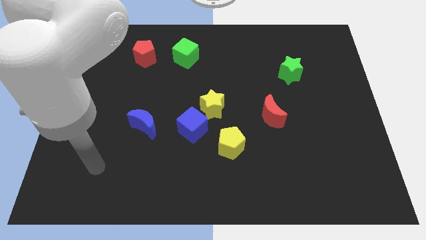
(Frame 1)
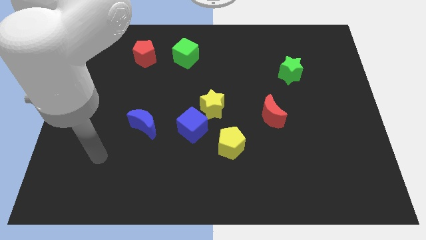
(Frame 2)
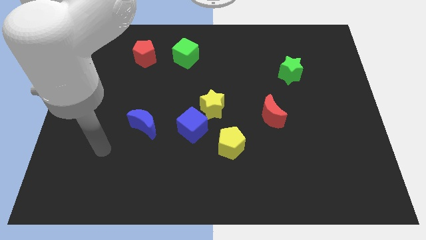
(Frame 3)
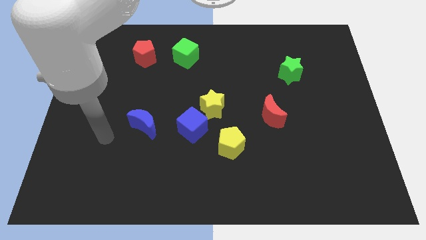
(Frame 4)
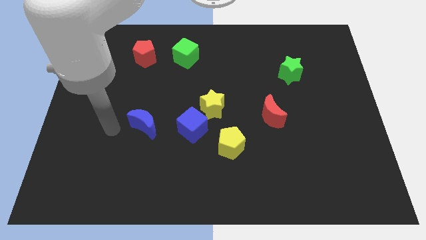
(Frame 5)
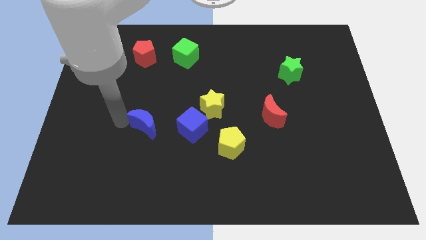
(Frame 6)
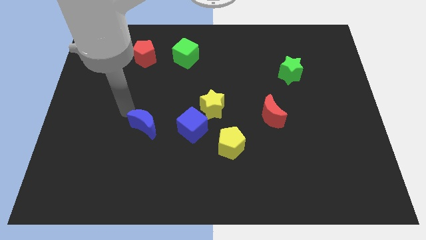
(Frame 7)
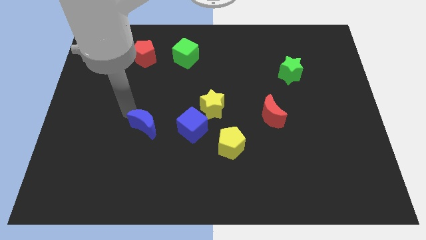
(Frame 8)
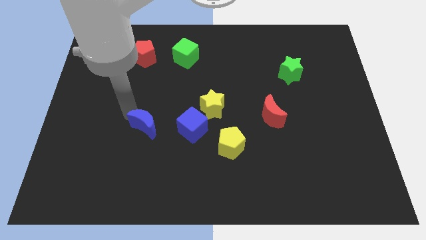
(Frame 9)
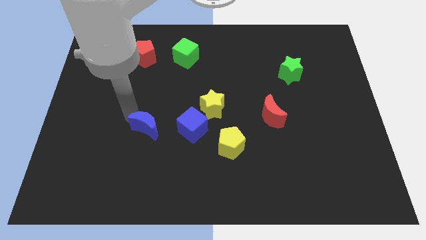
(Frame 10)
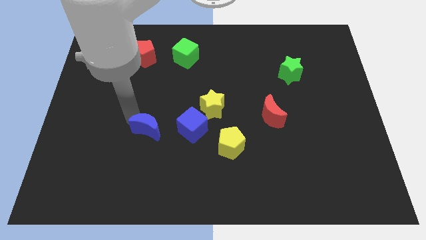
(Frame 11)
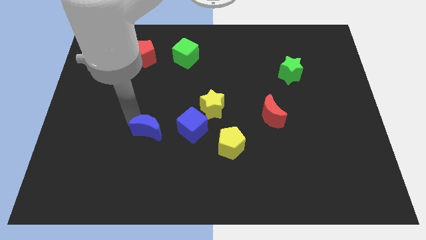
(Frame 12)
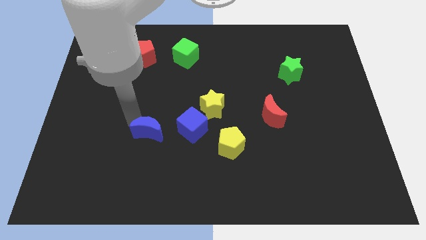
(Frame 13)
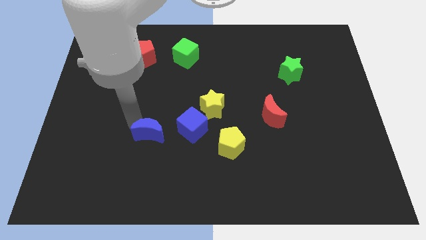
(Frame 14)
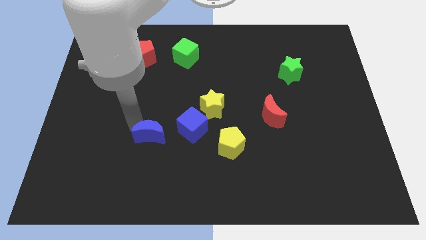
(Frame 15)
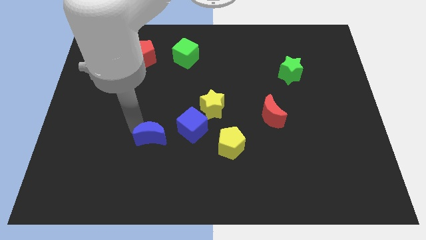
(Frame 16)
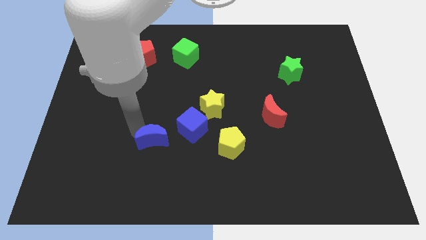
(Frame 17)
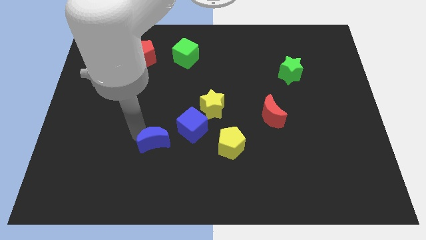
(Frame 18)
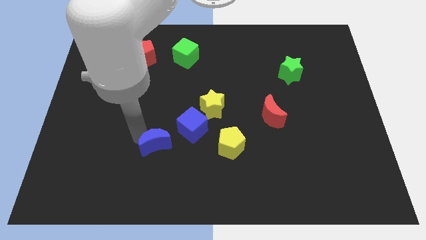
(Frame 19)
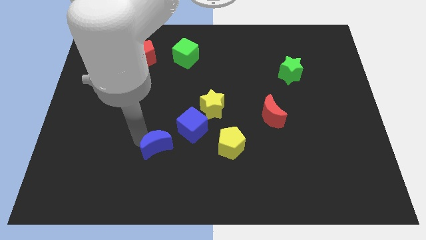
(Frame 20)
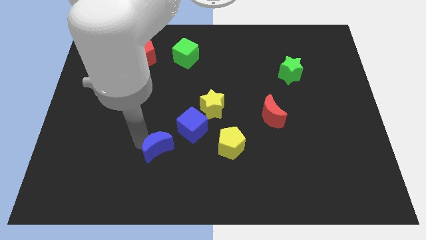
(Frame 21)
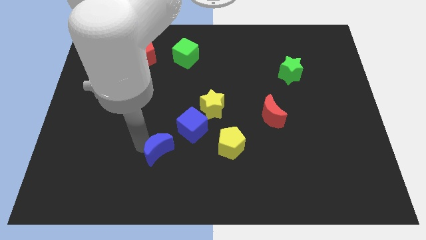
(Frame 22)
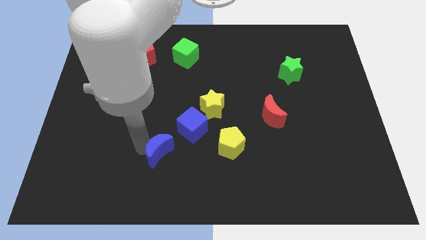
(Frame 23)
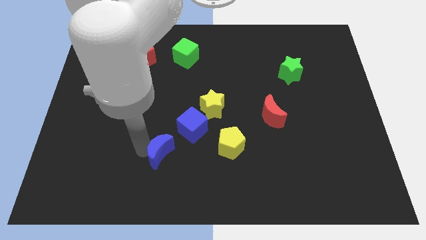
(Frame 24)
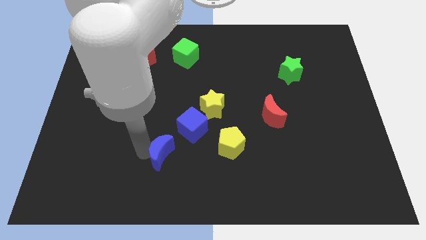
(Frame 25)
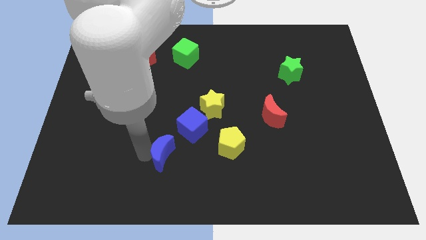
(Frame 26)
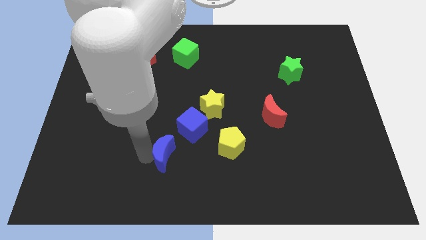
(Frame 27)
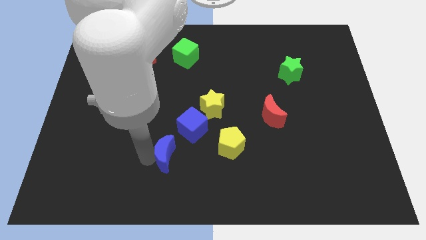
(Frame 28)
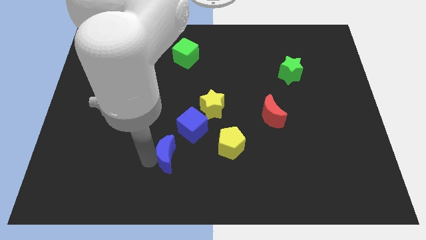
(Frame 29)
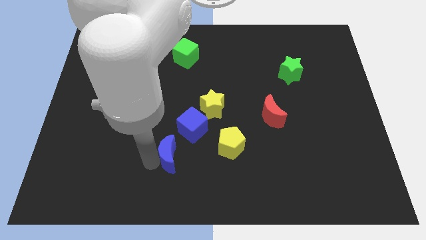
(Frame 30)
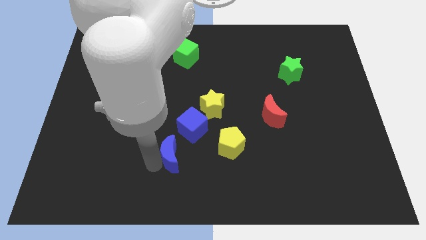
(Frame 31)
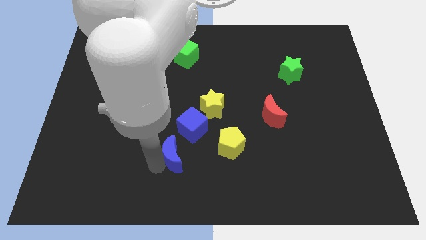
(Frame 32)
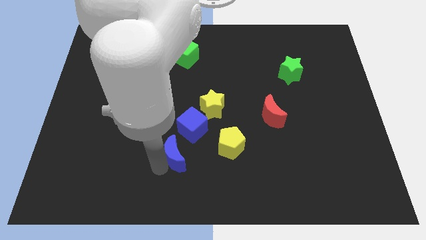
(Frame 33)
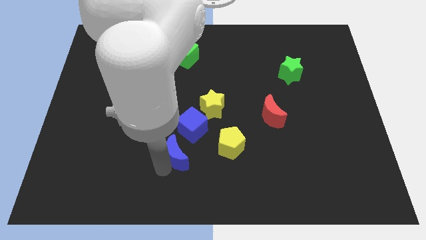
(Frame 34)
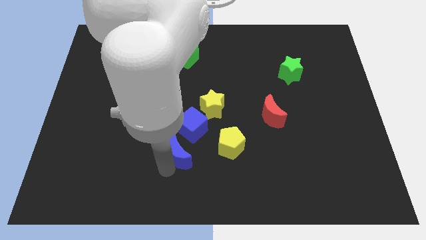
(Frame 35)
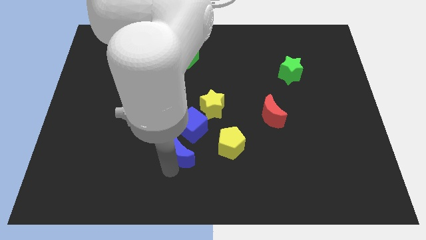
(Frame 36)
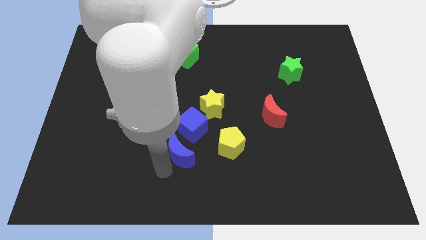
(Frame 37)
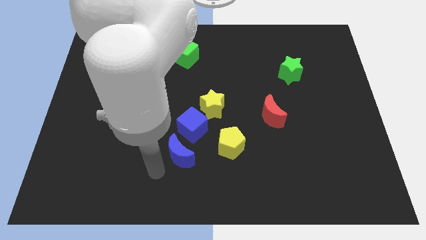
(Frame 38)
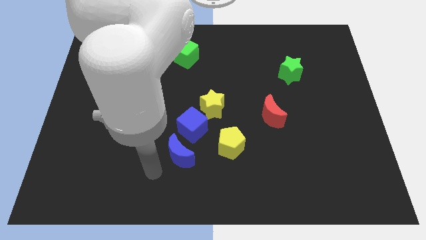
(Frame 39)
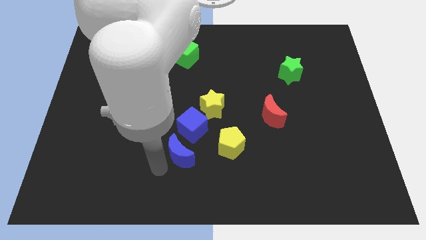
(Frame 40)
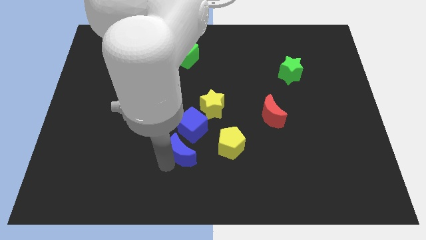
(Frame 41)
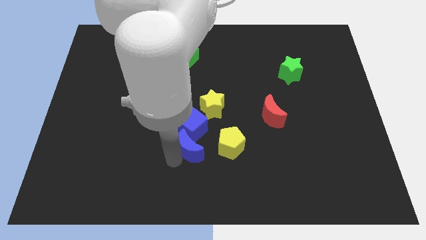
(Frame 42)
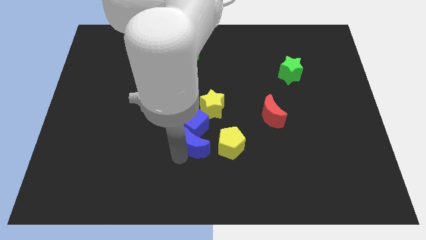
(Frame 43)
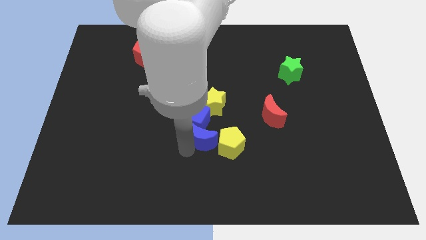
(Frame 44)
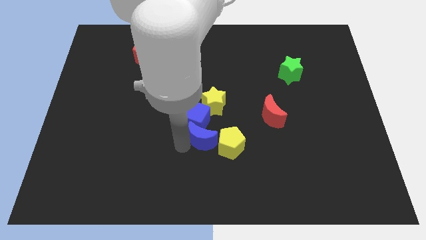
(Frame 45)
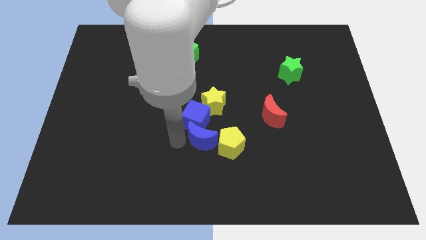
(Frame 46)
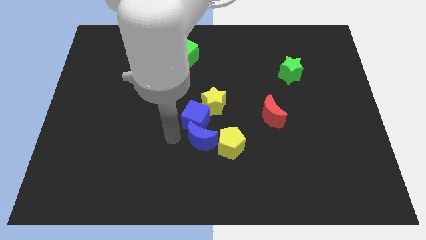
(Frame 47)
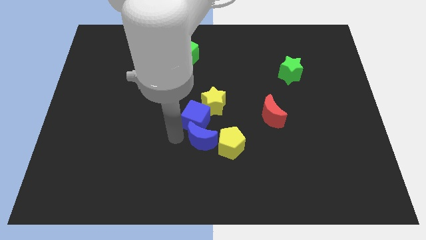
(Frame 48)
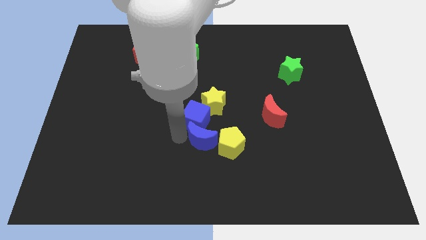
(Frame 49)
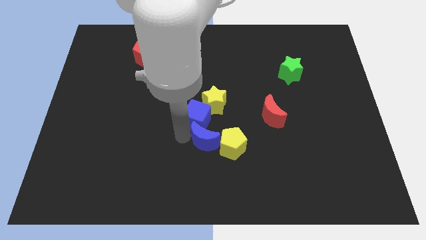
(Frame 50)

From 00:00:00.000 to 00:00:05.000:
slide the blue moon next to the yellow pentagon

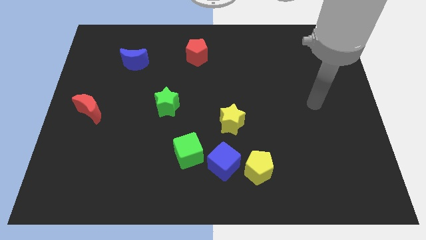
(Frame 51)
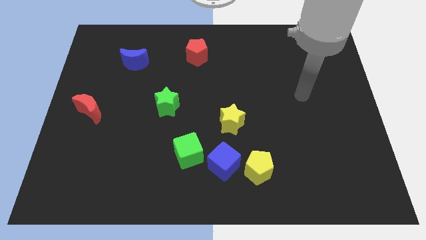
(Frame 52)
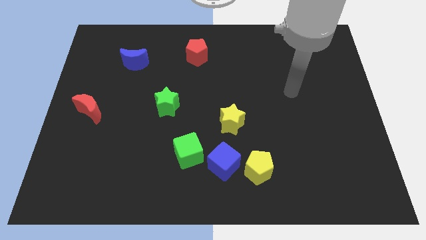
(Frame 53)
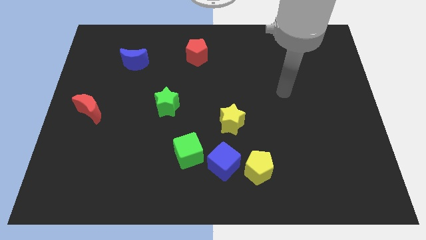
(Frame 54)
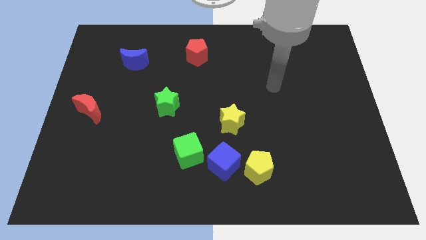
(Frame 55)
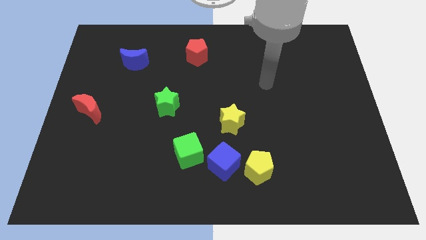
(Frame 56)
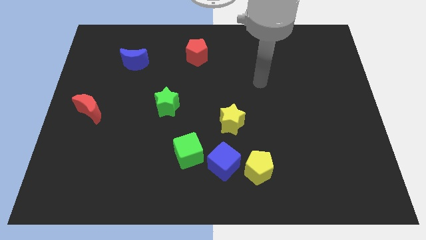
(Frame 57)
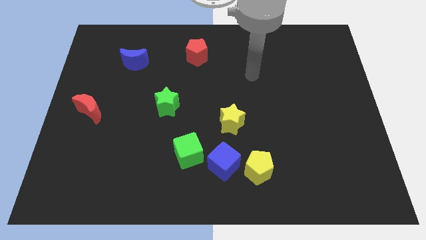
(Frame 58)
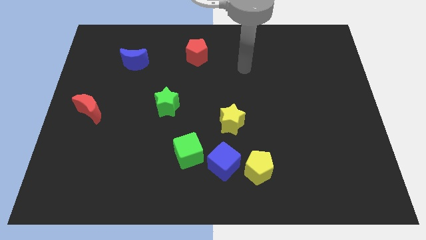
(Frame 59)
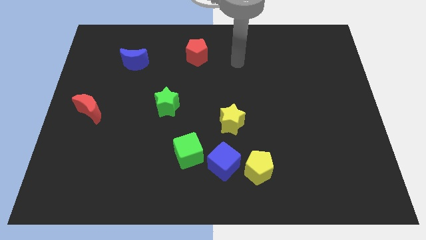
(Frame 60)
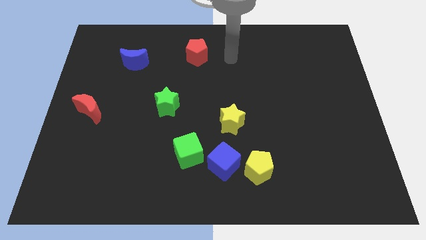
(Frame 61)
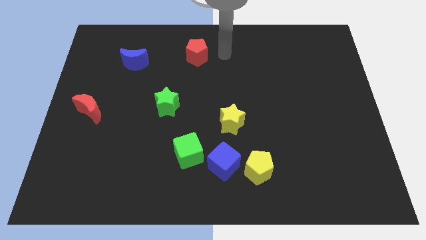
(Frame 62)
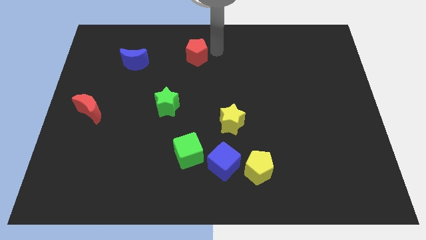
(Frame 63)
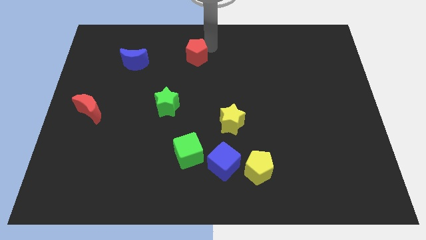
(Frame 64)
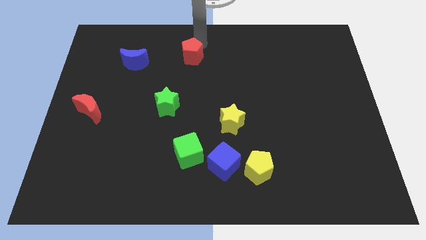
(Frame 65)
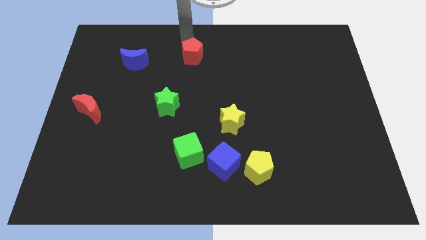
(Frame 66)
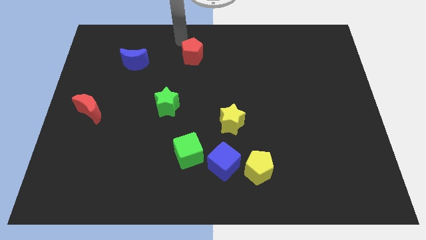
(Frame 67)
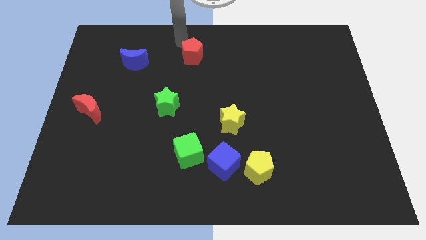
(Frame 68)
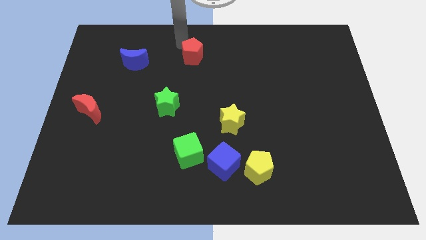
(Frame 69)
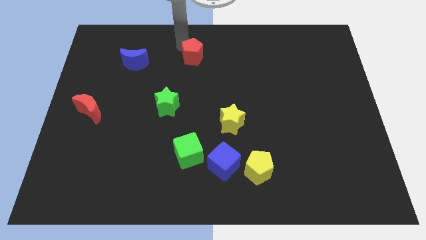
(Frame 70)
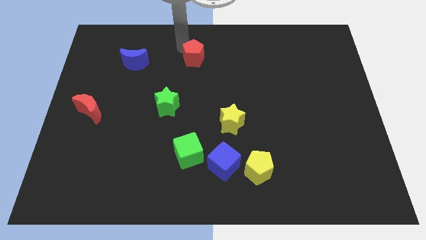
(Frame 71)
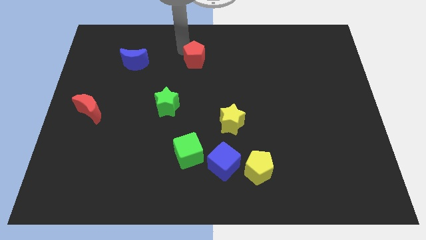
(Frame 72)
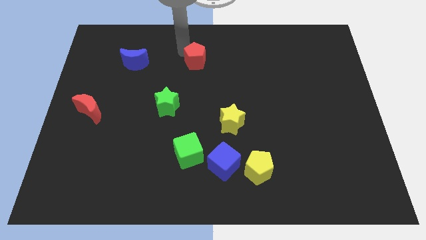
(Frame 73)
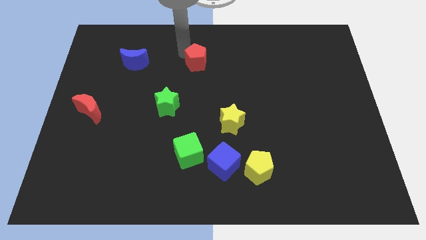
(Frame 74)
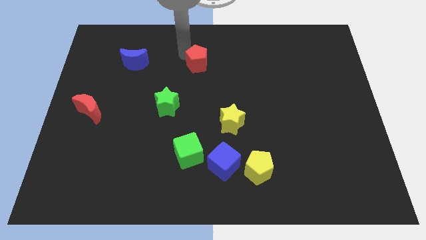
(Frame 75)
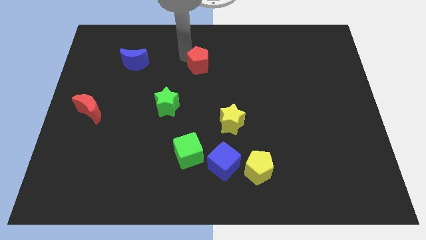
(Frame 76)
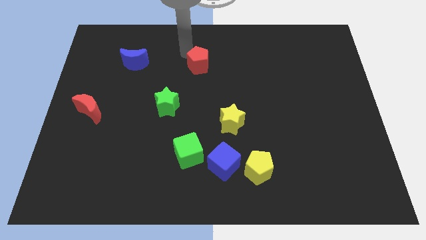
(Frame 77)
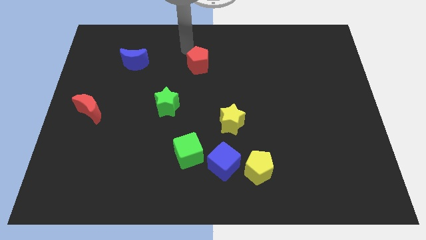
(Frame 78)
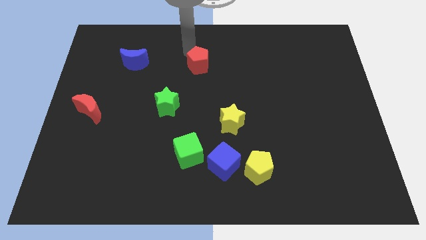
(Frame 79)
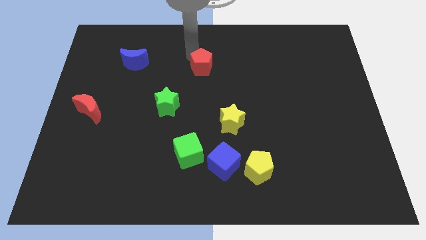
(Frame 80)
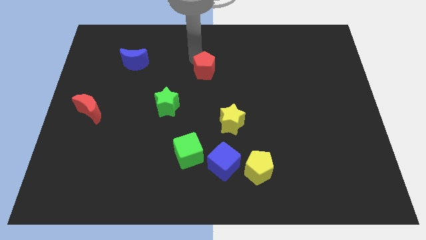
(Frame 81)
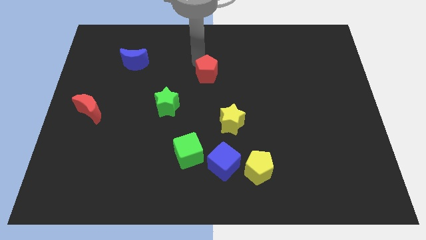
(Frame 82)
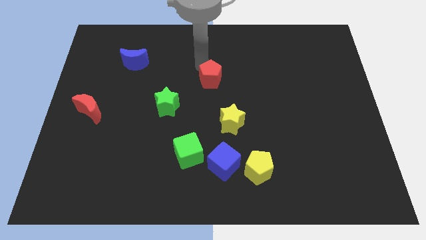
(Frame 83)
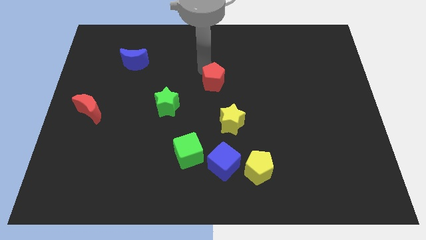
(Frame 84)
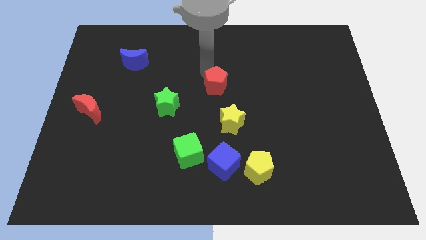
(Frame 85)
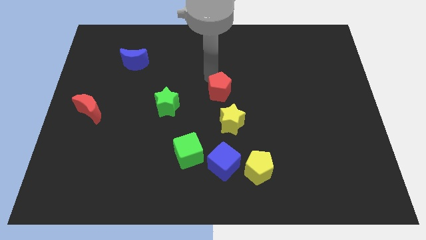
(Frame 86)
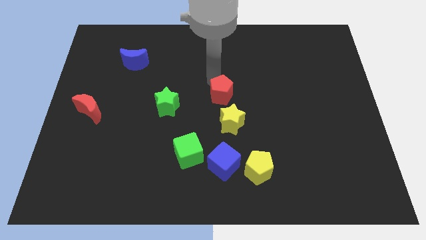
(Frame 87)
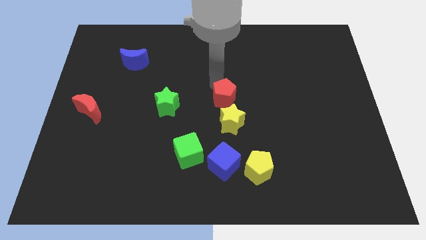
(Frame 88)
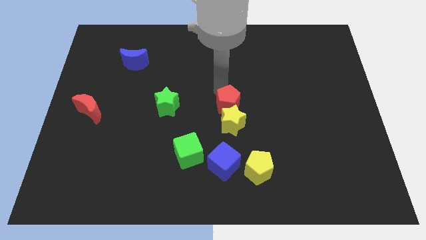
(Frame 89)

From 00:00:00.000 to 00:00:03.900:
put the red pentagon next to the yellow star
